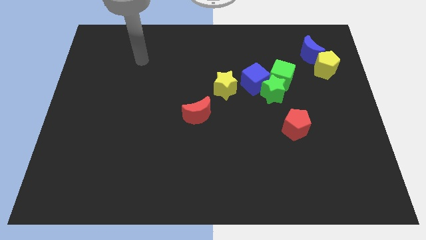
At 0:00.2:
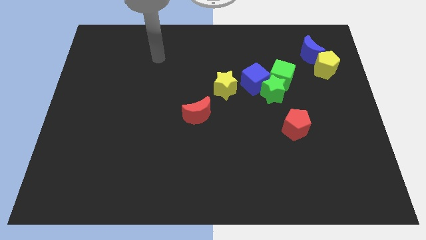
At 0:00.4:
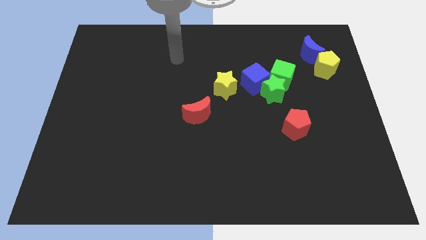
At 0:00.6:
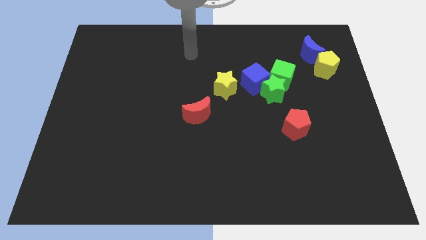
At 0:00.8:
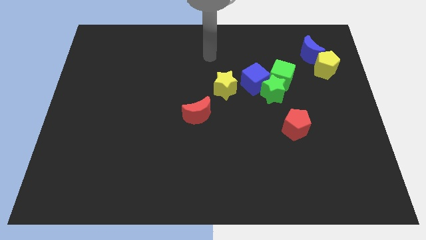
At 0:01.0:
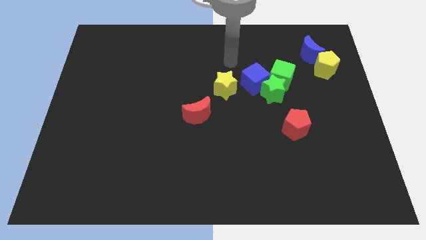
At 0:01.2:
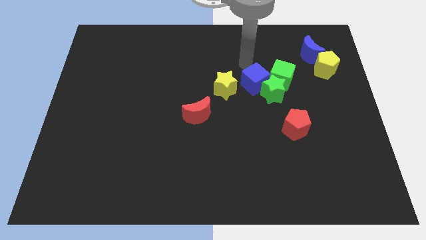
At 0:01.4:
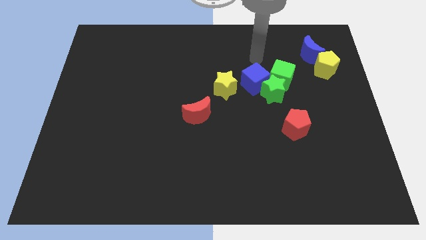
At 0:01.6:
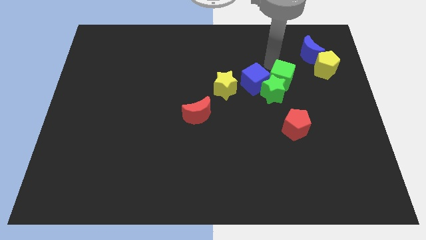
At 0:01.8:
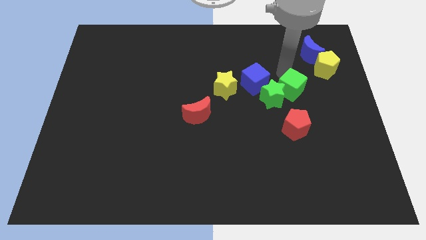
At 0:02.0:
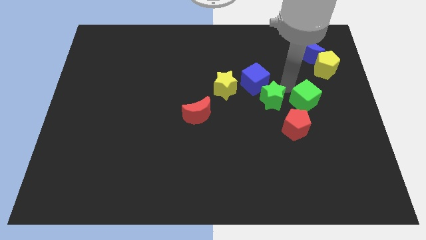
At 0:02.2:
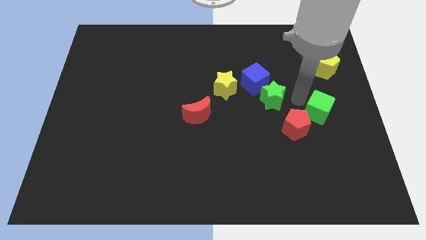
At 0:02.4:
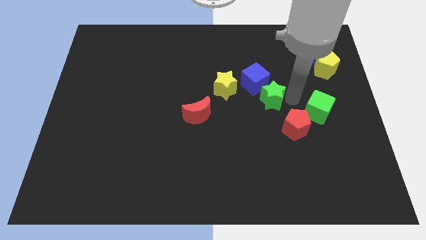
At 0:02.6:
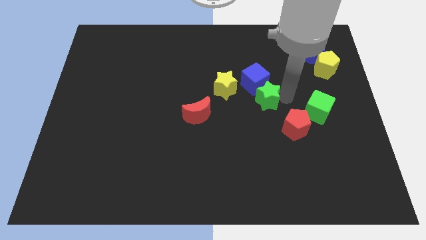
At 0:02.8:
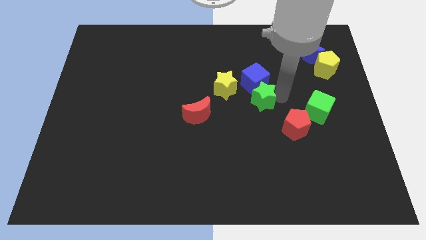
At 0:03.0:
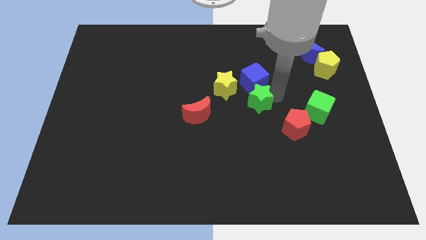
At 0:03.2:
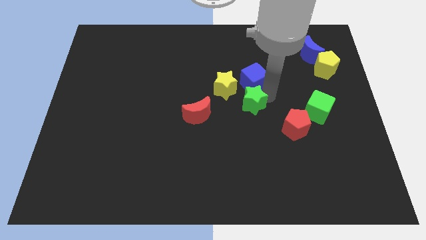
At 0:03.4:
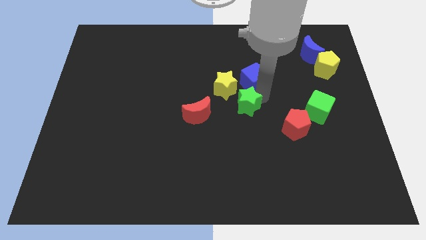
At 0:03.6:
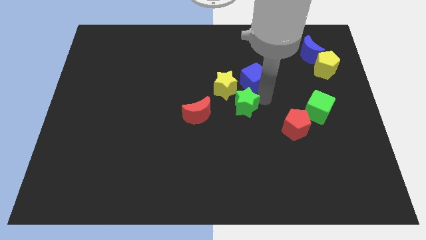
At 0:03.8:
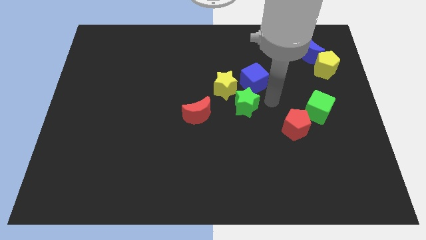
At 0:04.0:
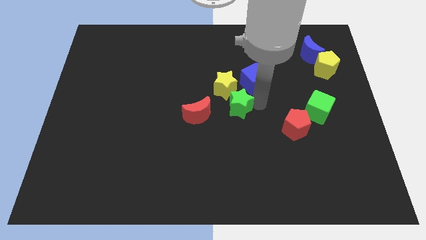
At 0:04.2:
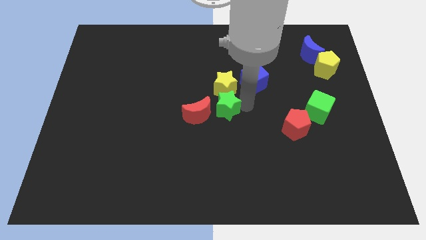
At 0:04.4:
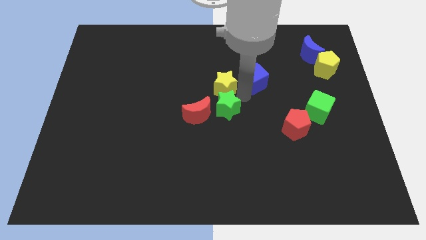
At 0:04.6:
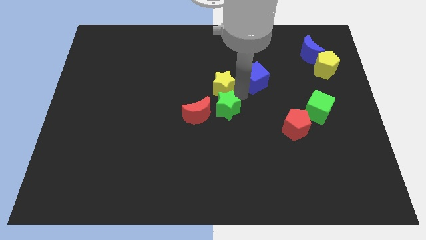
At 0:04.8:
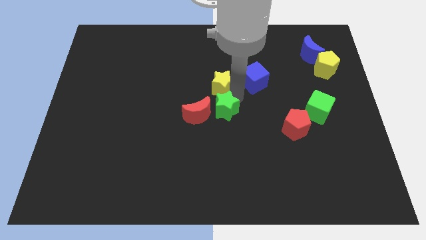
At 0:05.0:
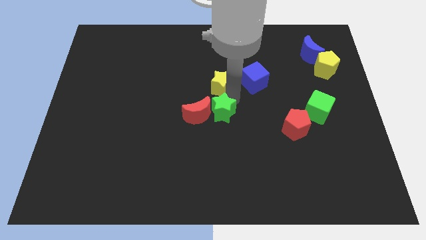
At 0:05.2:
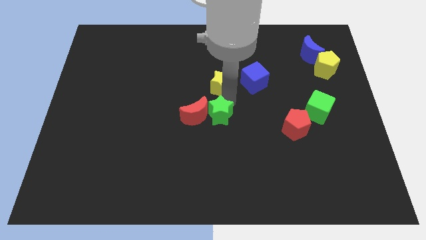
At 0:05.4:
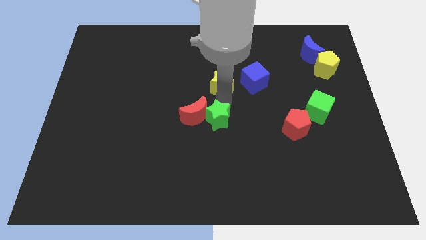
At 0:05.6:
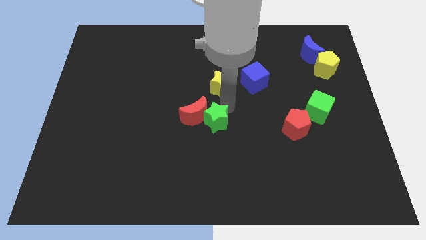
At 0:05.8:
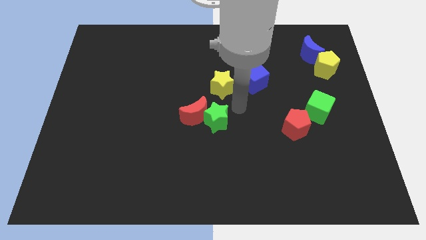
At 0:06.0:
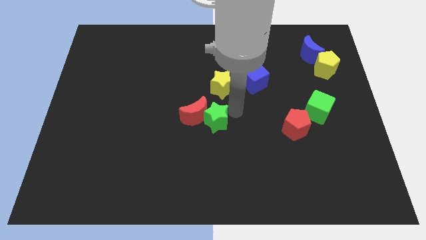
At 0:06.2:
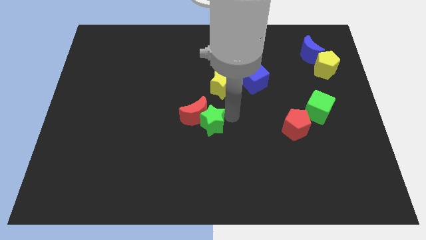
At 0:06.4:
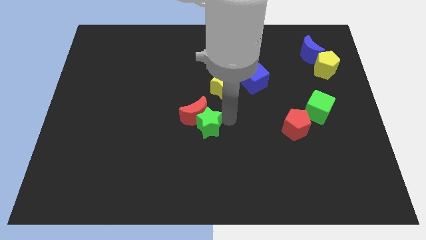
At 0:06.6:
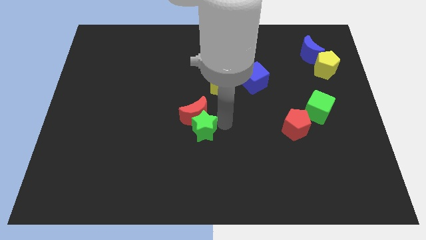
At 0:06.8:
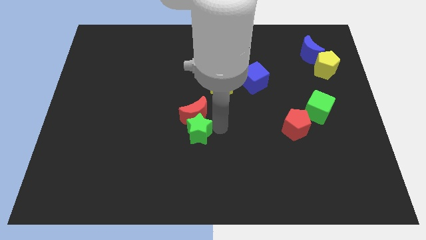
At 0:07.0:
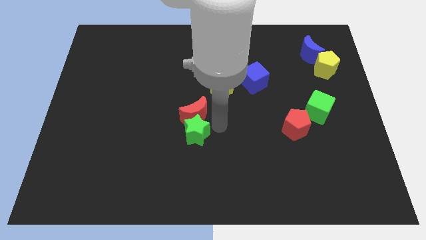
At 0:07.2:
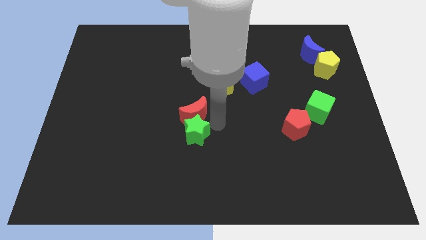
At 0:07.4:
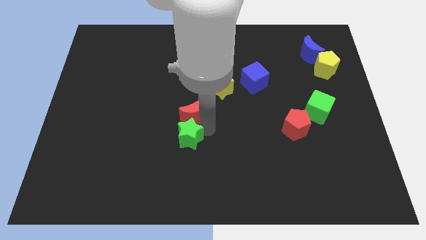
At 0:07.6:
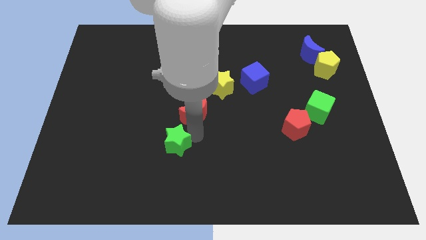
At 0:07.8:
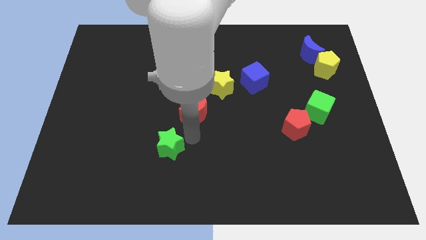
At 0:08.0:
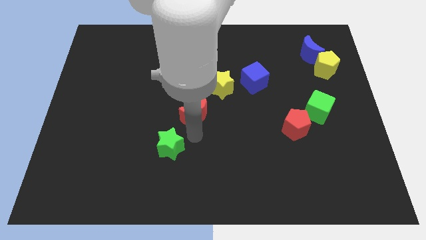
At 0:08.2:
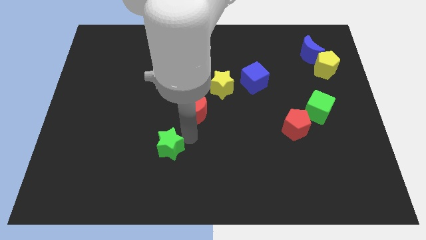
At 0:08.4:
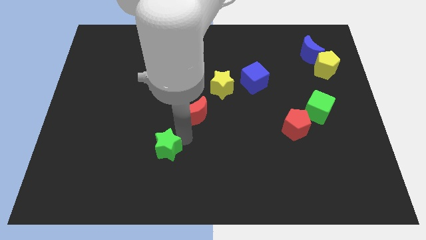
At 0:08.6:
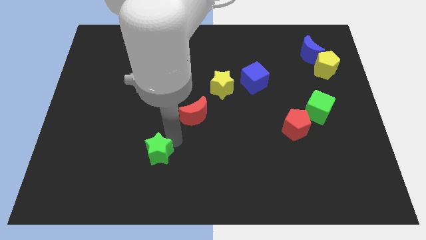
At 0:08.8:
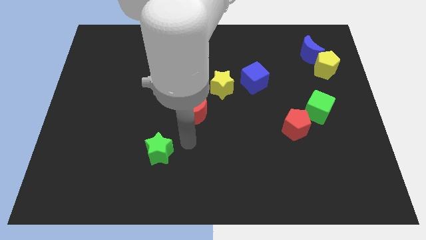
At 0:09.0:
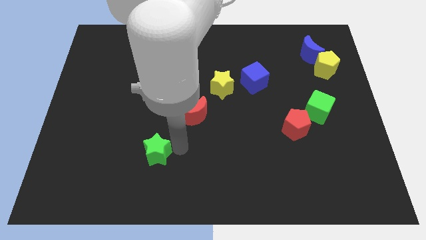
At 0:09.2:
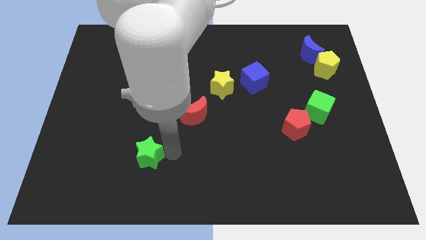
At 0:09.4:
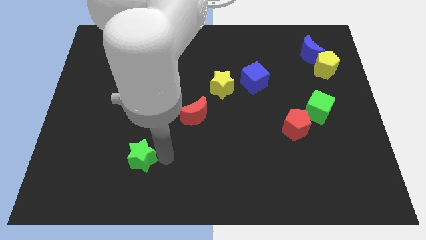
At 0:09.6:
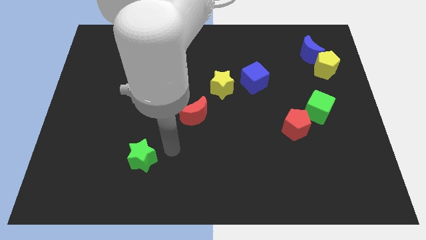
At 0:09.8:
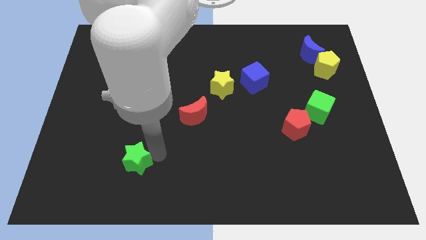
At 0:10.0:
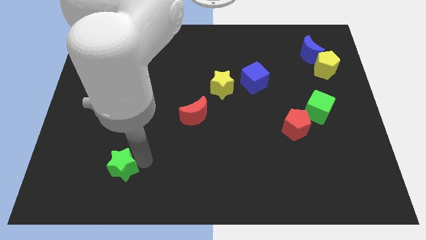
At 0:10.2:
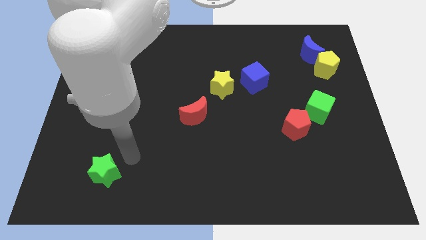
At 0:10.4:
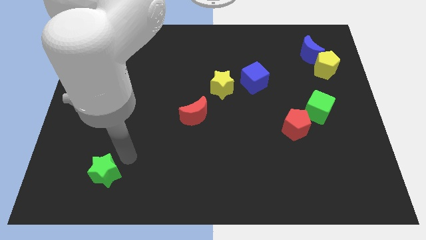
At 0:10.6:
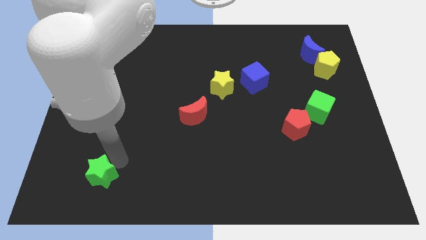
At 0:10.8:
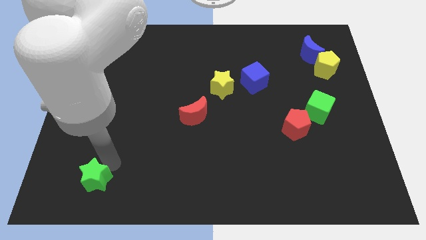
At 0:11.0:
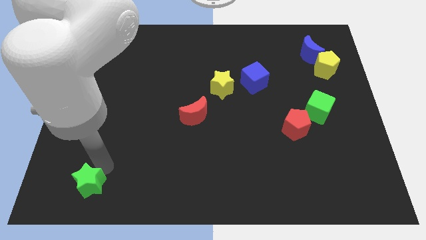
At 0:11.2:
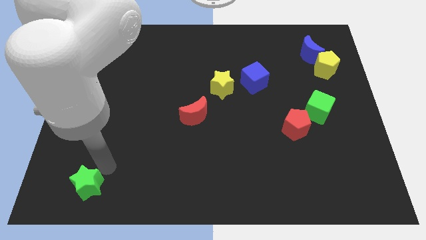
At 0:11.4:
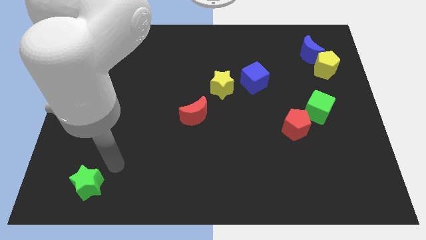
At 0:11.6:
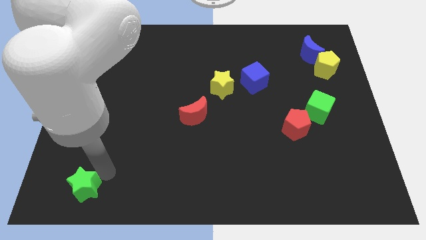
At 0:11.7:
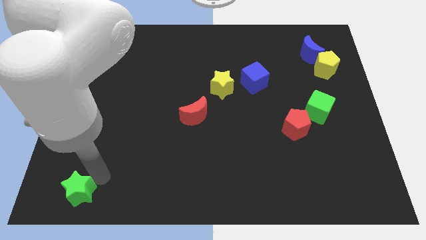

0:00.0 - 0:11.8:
slide the green star to the bottom left corner
